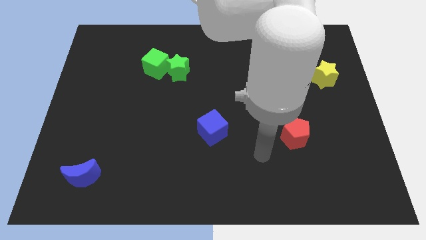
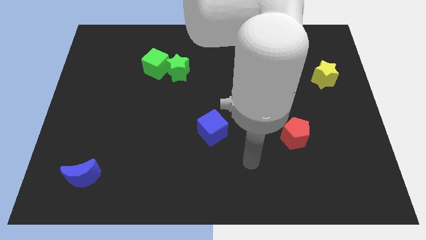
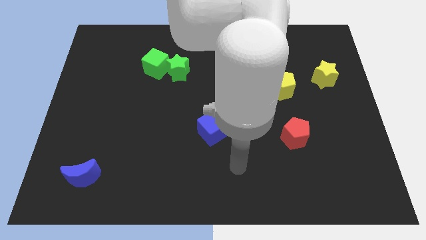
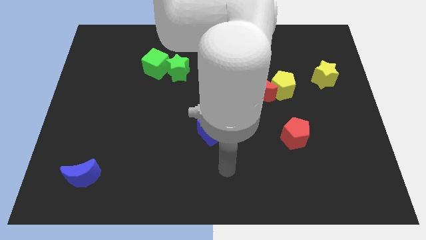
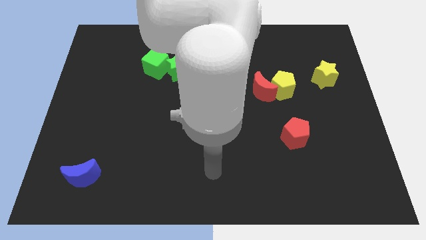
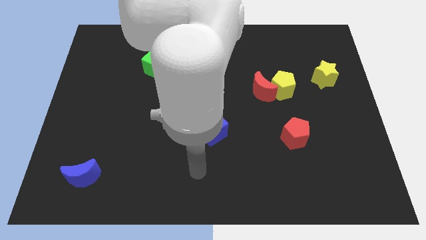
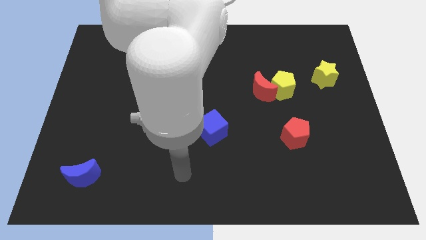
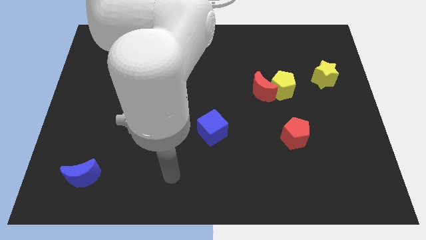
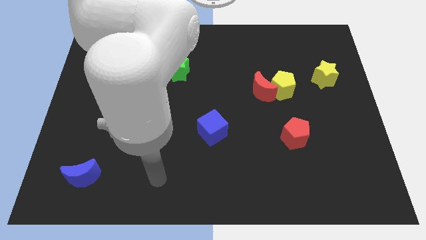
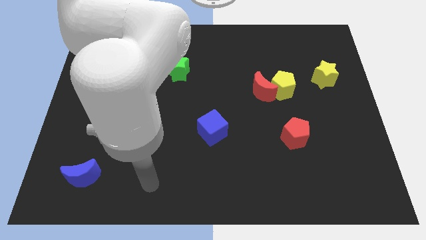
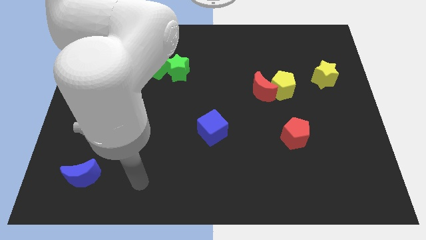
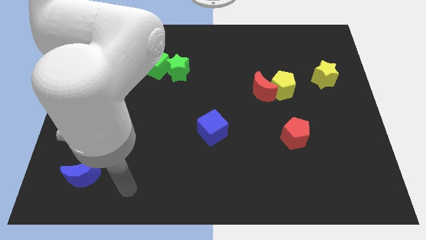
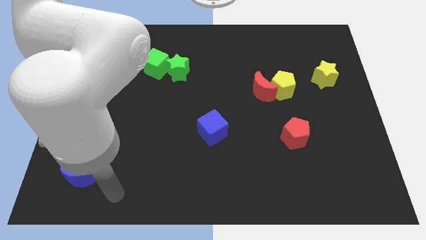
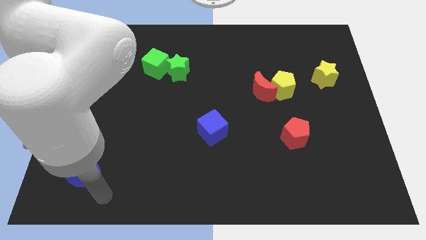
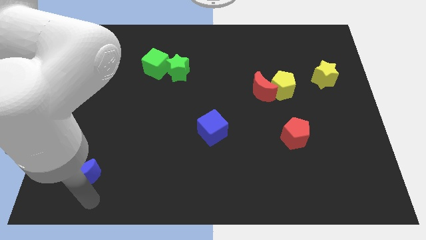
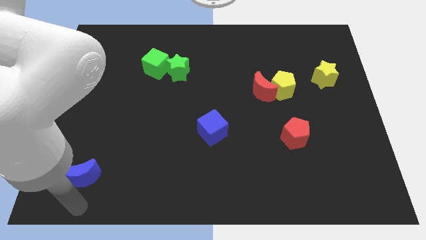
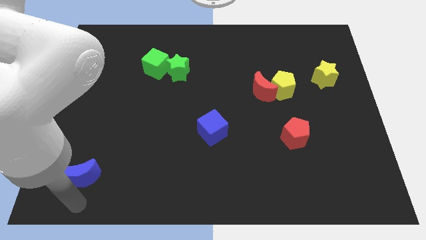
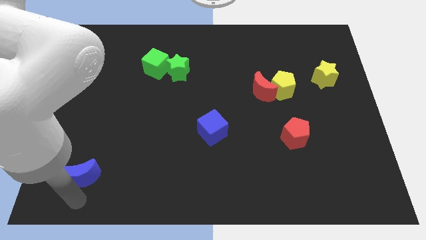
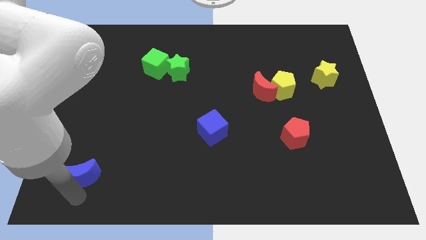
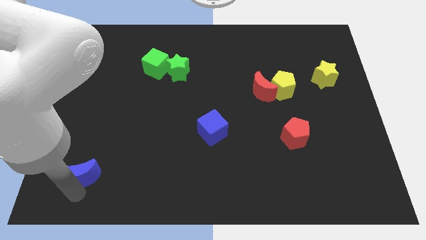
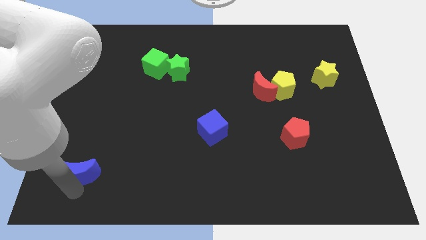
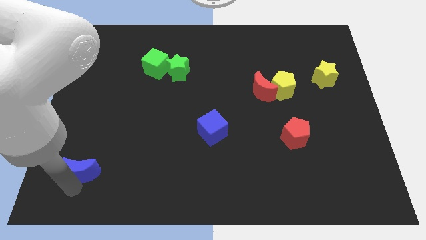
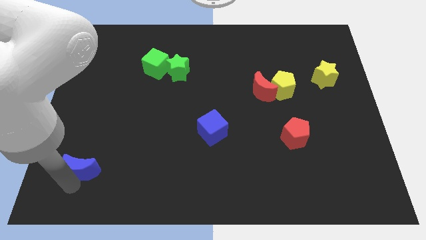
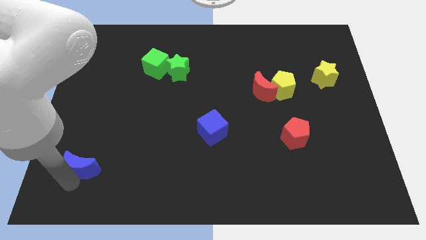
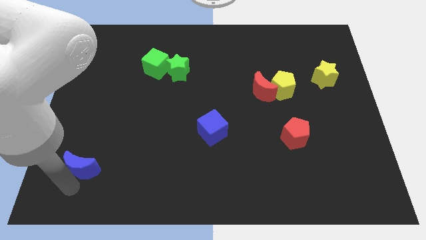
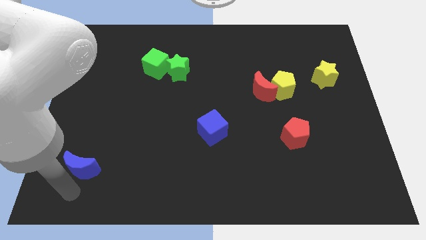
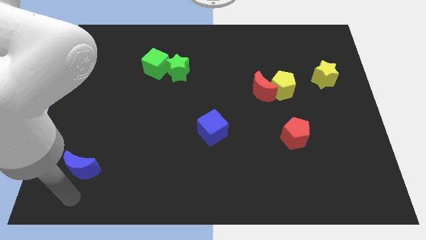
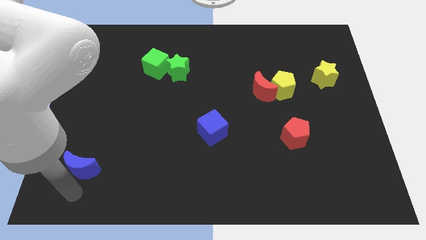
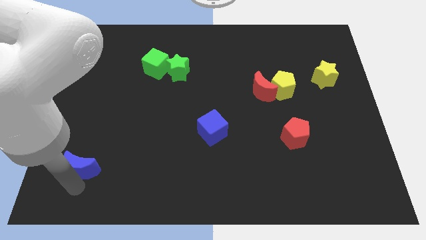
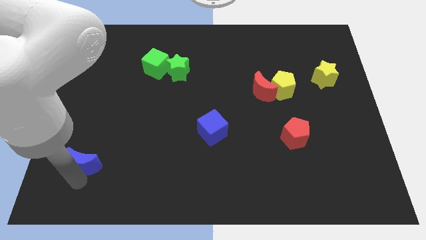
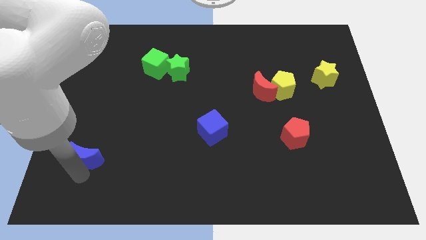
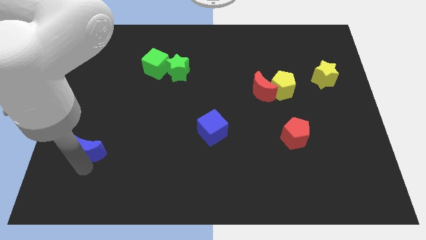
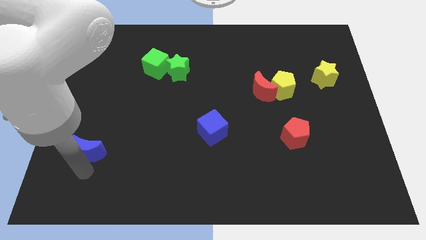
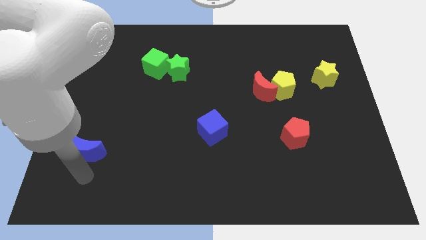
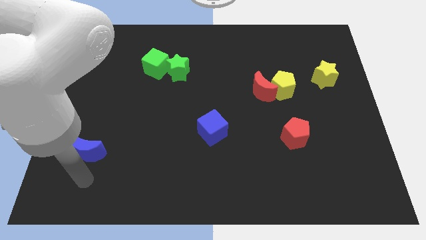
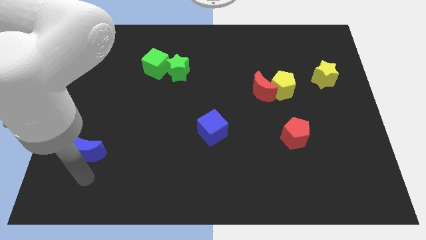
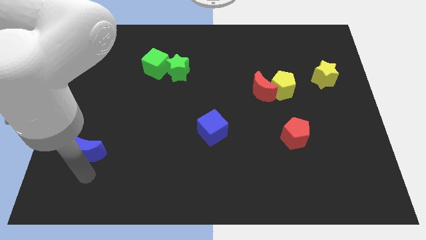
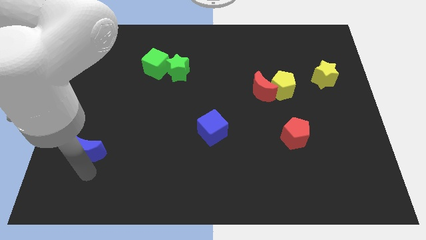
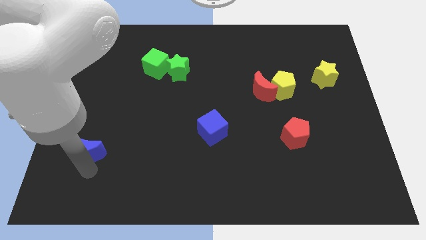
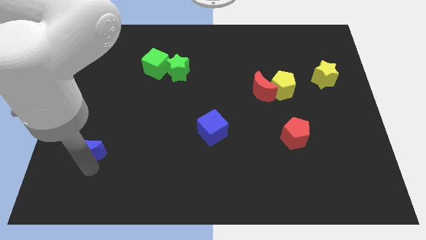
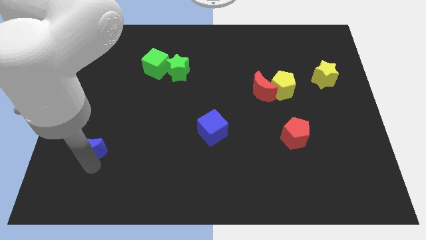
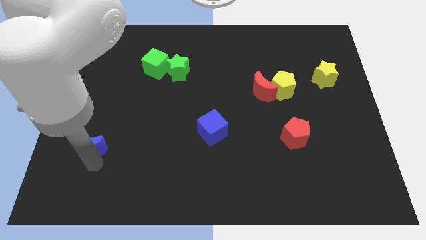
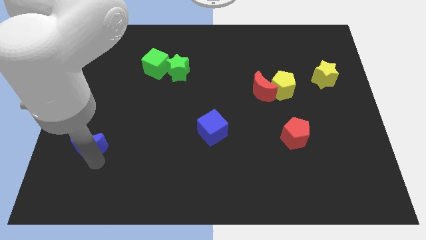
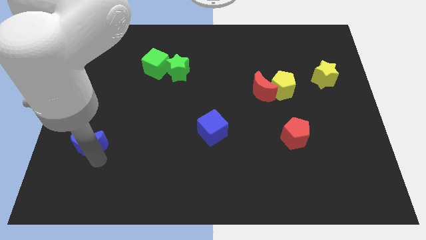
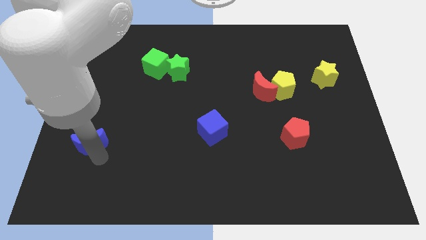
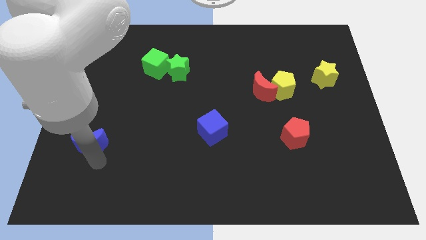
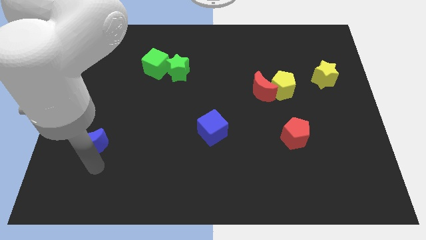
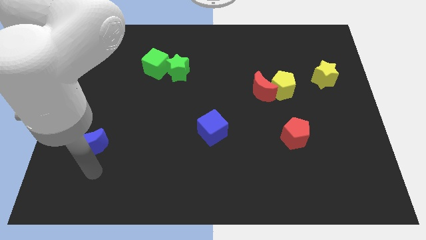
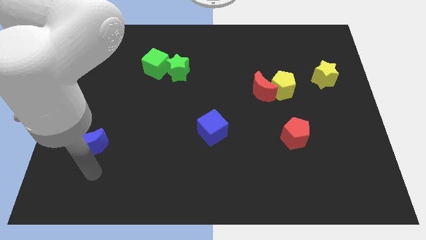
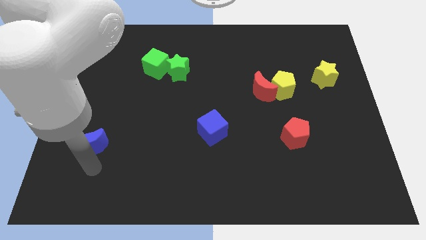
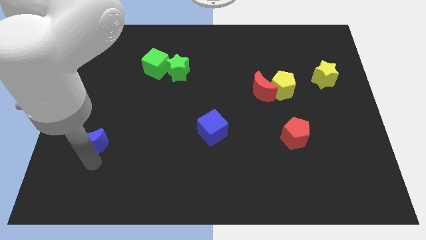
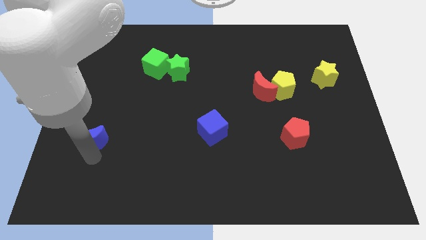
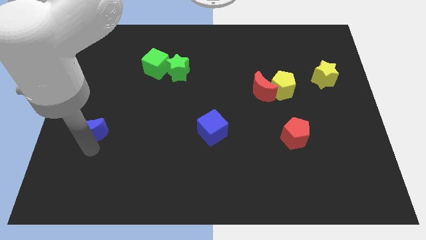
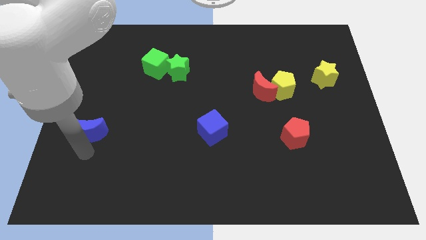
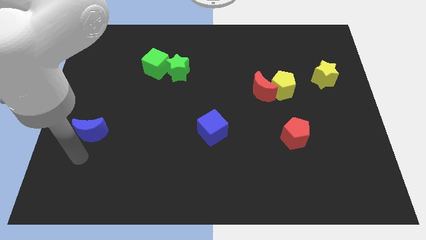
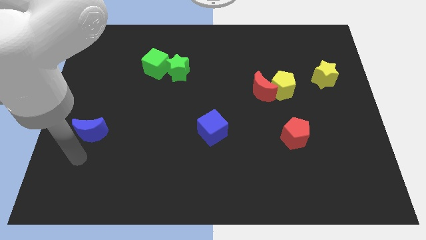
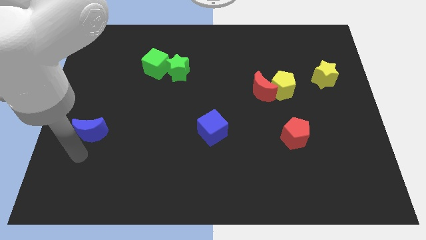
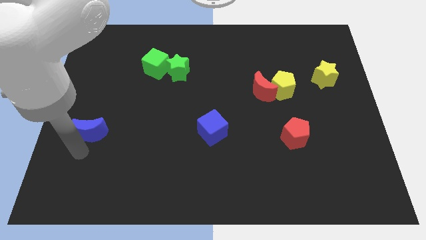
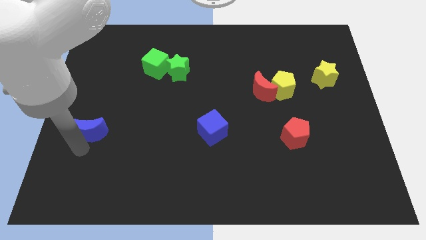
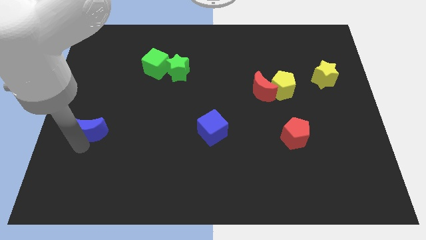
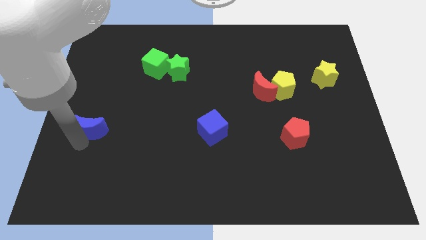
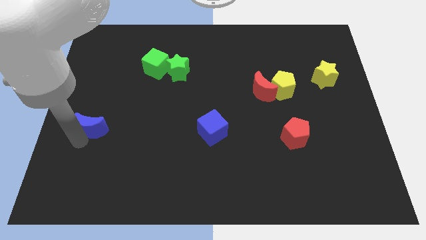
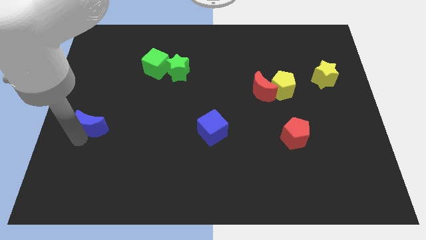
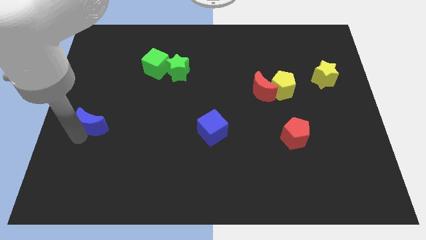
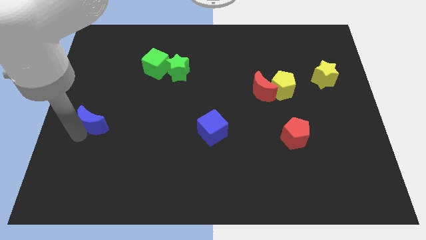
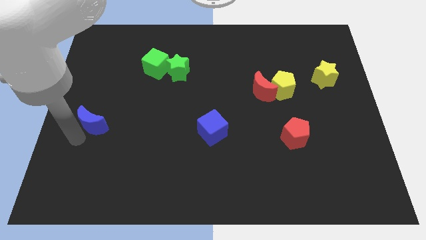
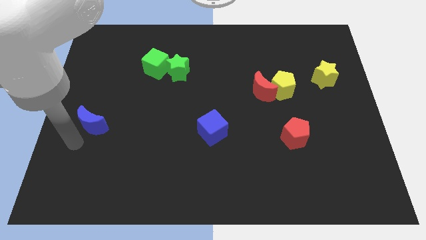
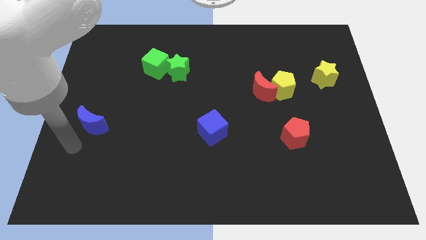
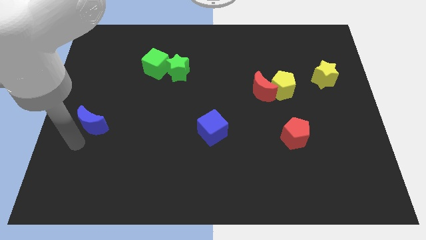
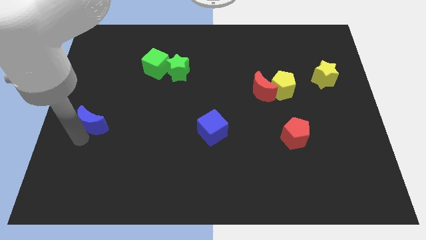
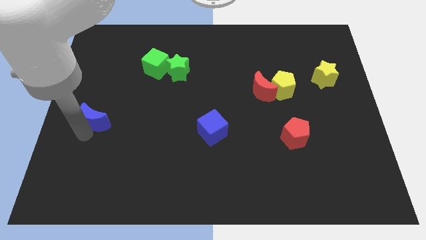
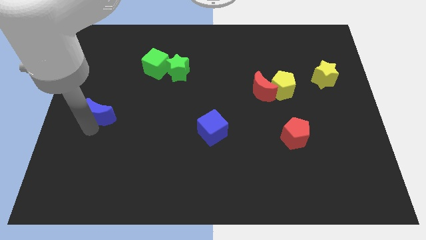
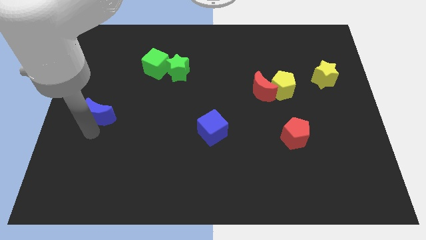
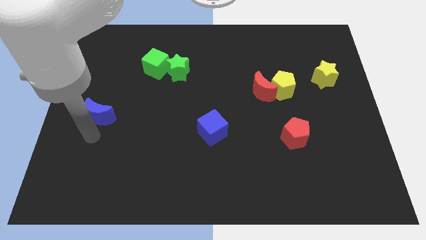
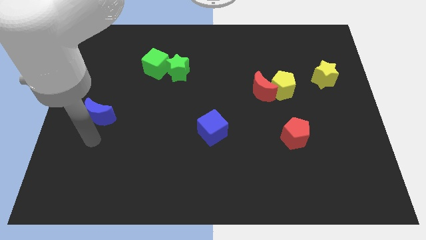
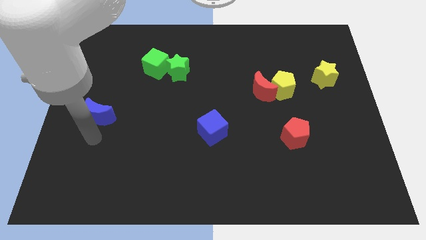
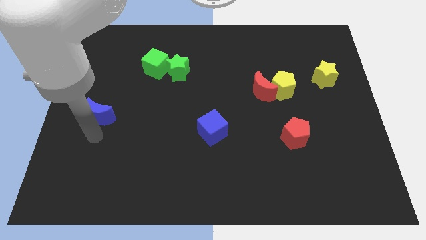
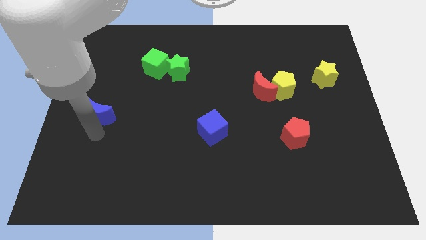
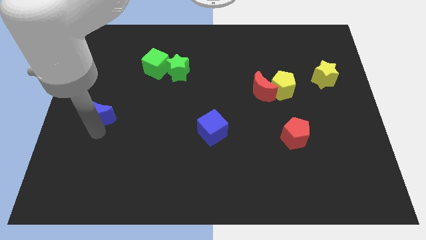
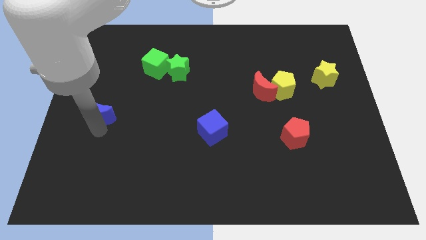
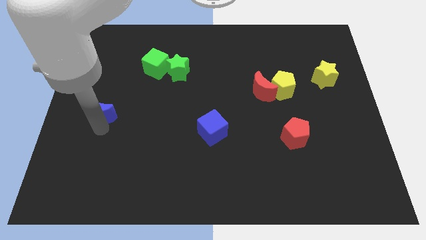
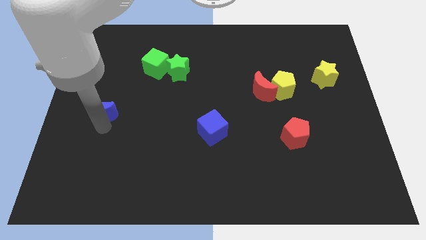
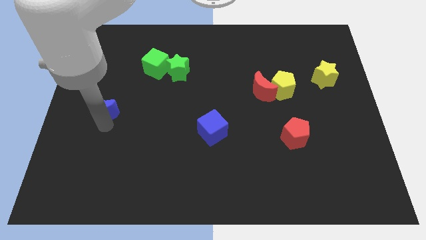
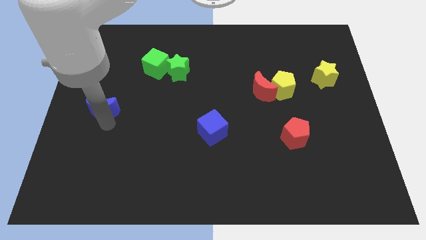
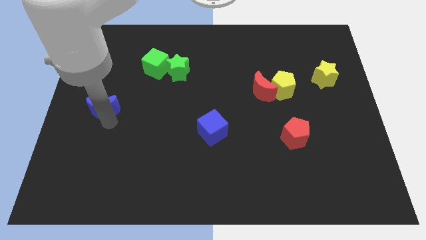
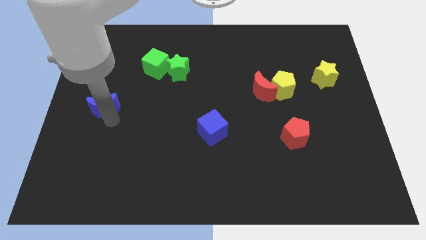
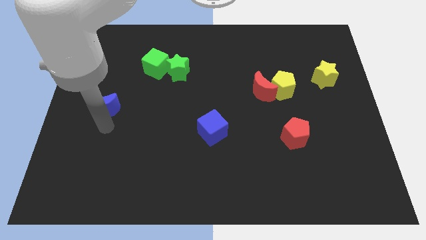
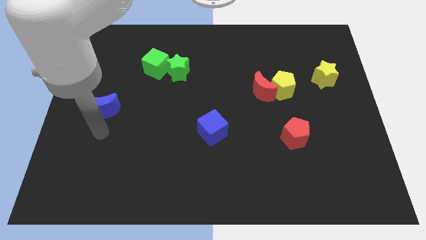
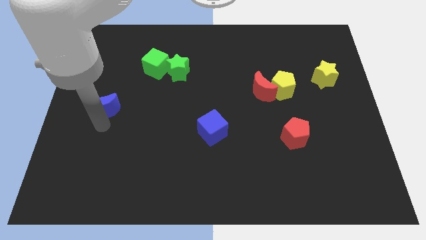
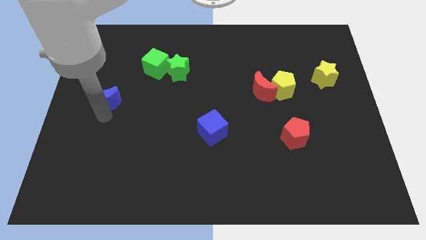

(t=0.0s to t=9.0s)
push the blue moon up
